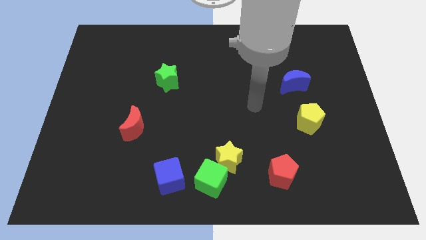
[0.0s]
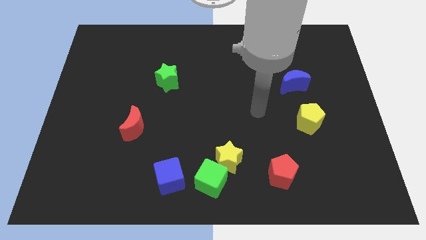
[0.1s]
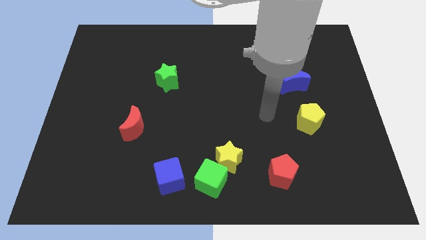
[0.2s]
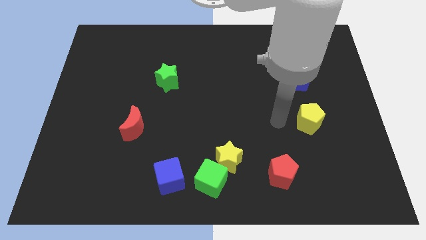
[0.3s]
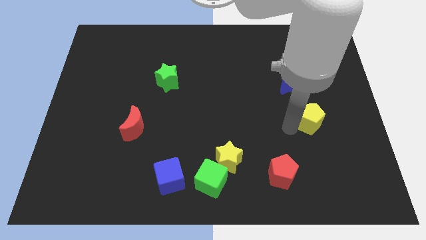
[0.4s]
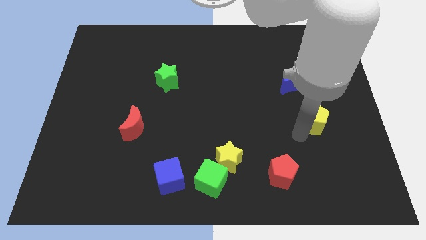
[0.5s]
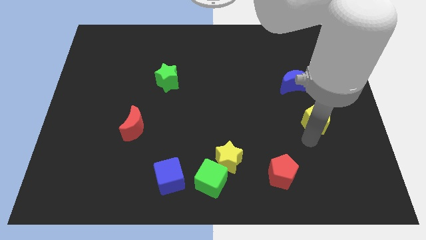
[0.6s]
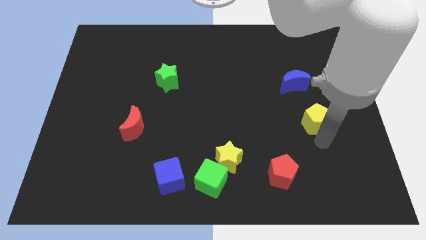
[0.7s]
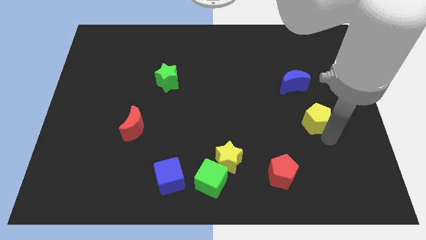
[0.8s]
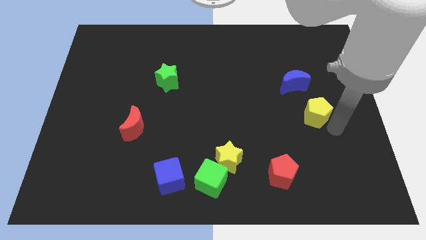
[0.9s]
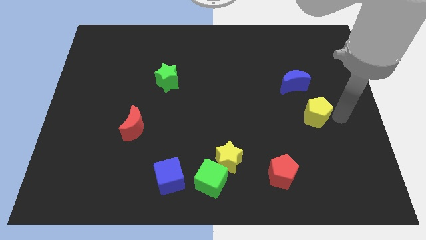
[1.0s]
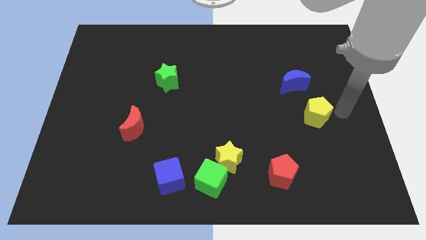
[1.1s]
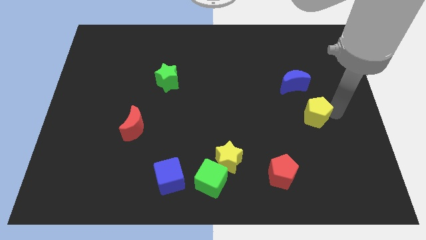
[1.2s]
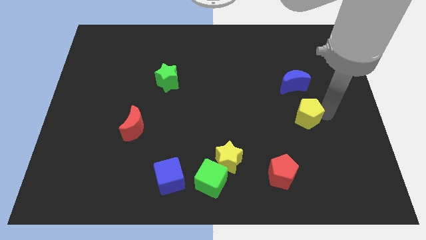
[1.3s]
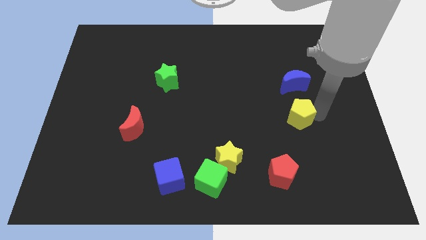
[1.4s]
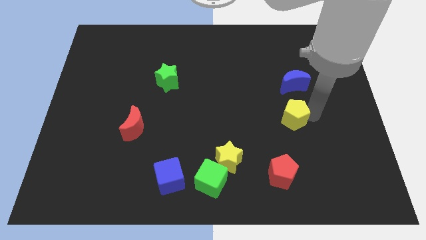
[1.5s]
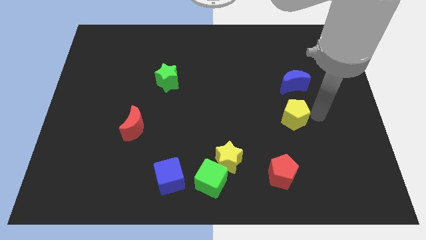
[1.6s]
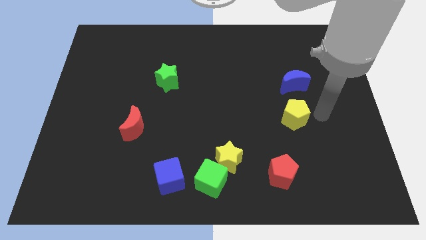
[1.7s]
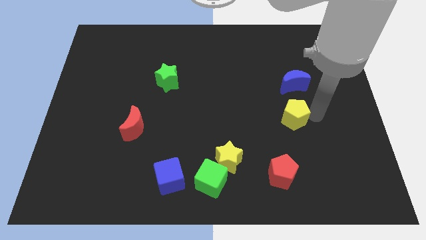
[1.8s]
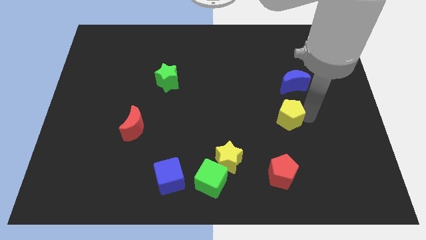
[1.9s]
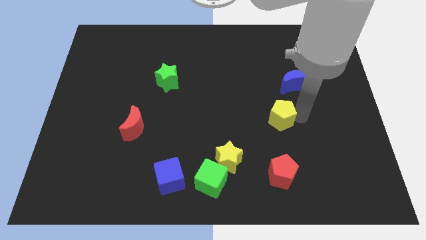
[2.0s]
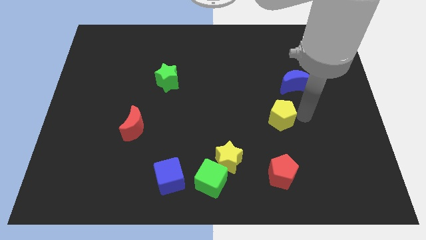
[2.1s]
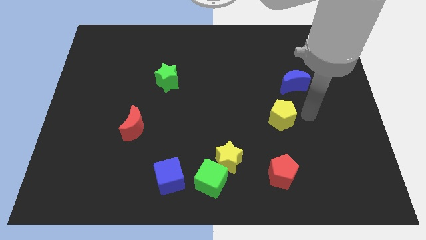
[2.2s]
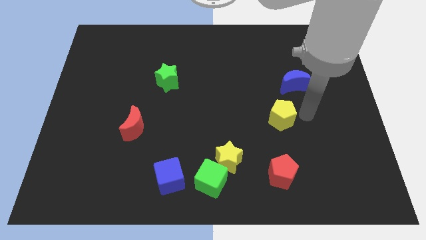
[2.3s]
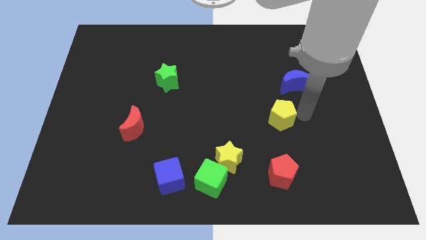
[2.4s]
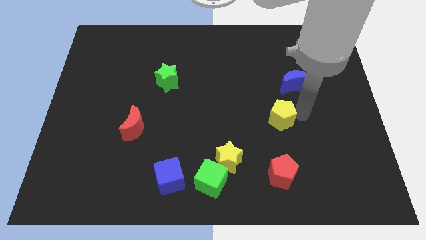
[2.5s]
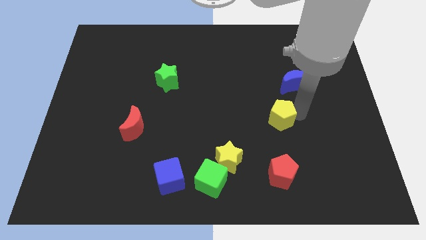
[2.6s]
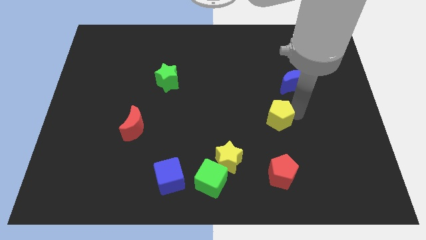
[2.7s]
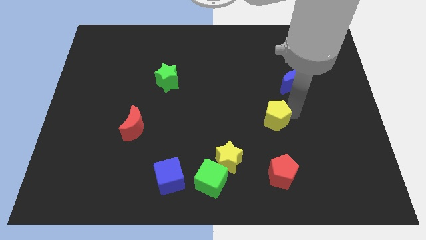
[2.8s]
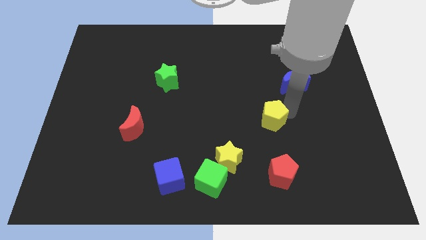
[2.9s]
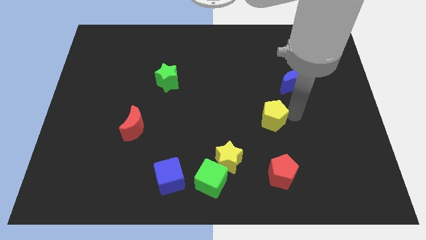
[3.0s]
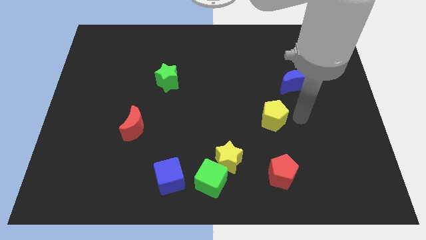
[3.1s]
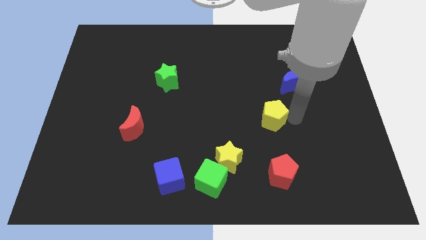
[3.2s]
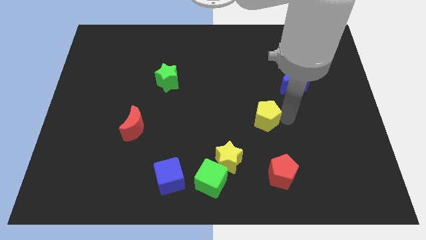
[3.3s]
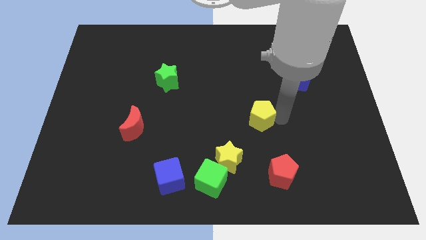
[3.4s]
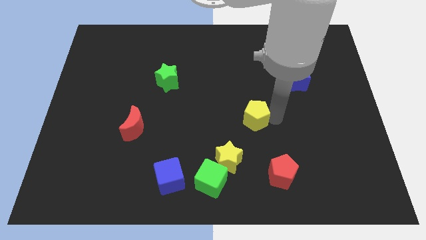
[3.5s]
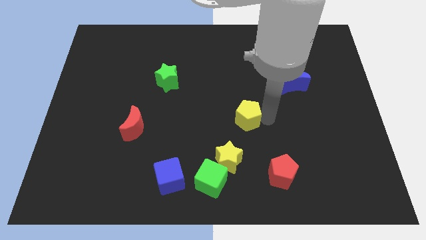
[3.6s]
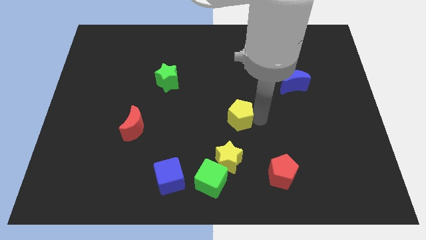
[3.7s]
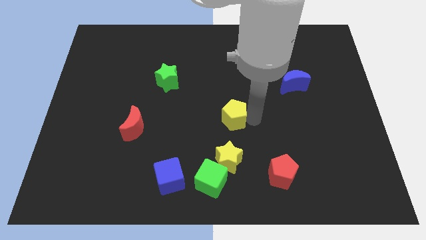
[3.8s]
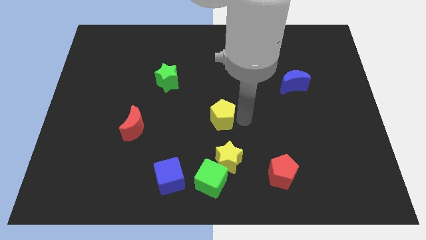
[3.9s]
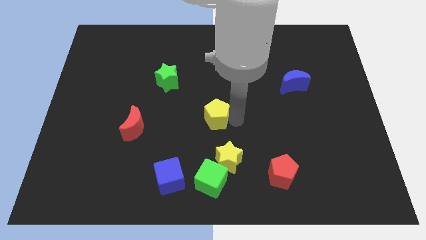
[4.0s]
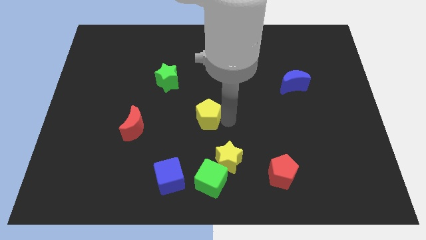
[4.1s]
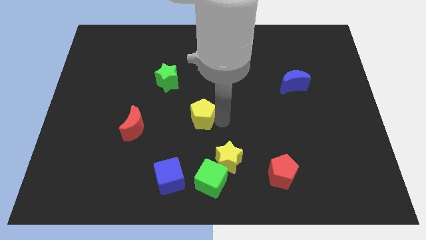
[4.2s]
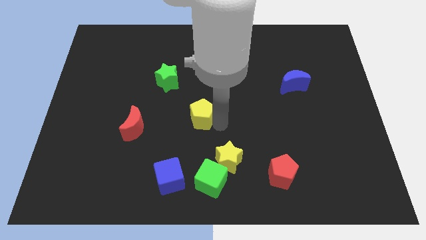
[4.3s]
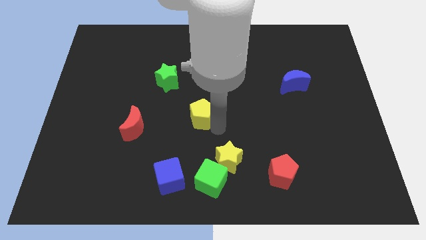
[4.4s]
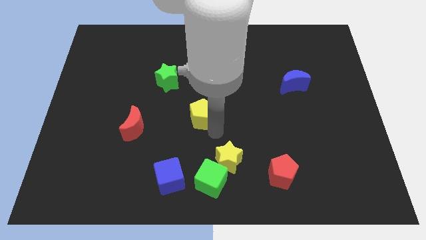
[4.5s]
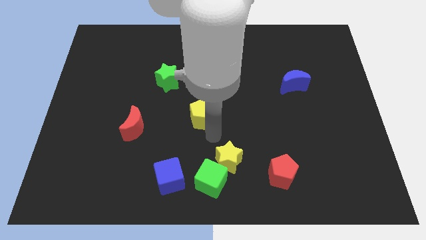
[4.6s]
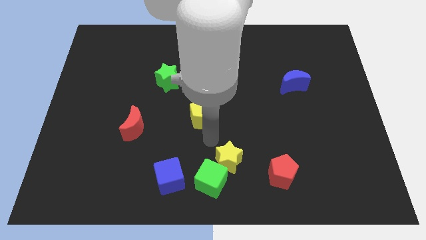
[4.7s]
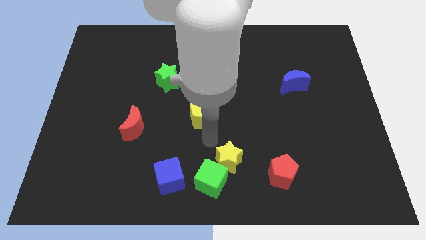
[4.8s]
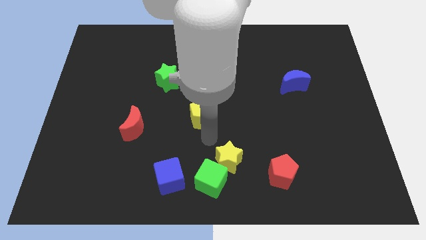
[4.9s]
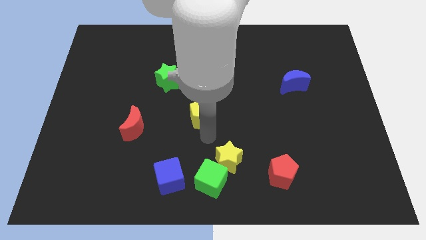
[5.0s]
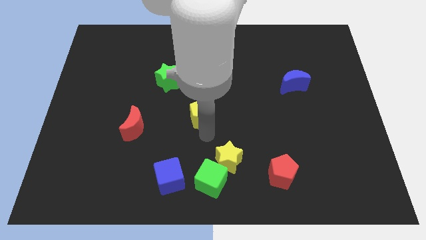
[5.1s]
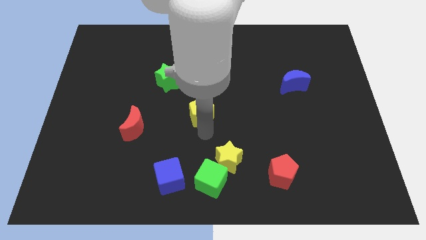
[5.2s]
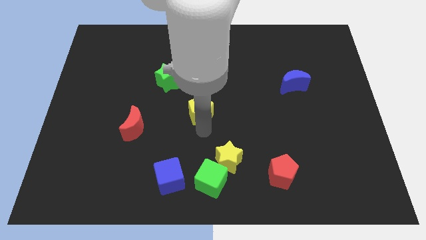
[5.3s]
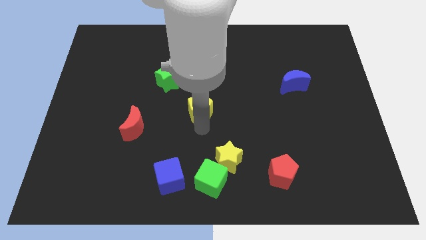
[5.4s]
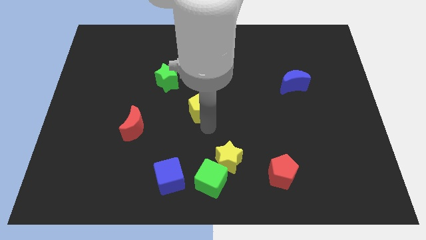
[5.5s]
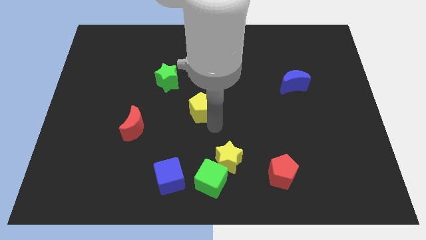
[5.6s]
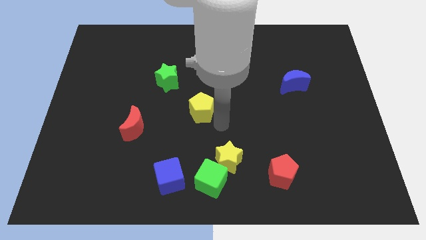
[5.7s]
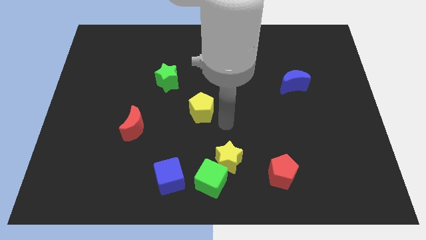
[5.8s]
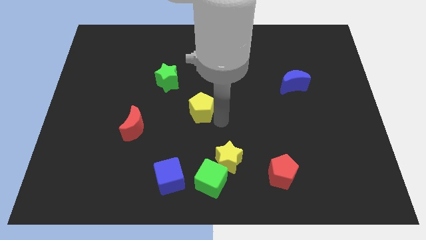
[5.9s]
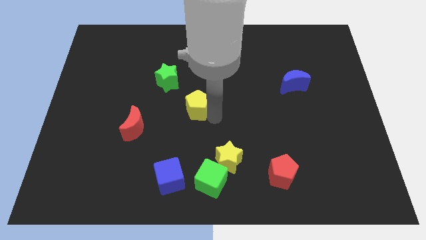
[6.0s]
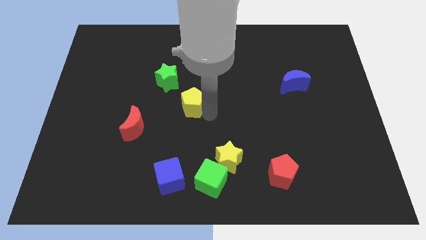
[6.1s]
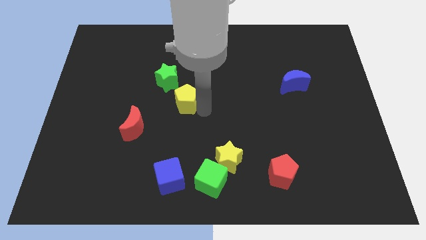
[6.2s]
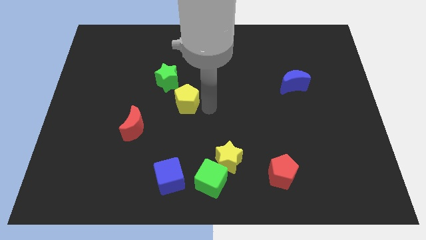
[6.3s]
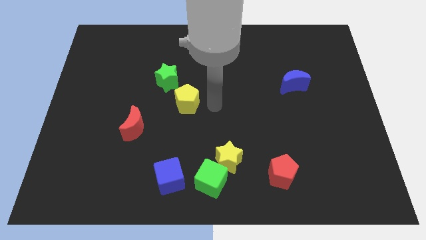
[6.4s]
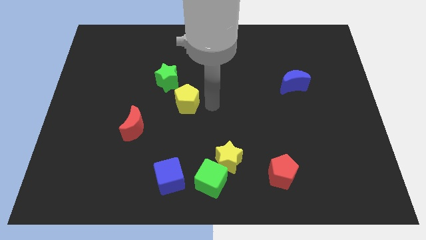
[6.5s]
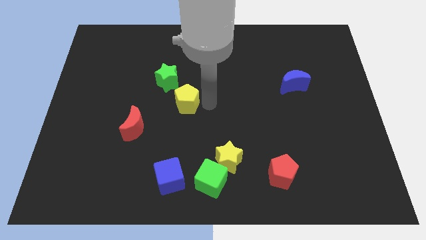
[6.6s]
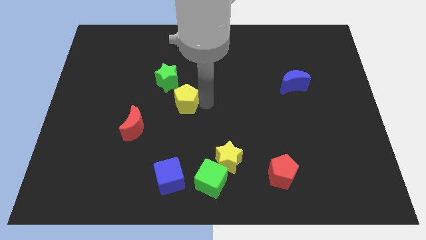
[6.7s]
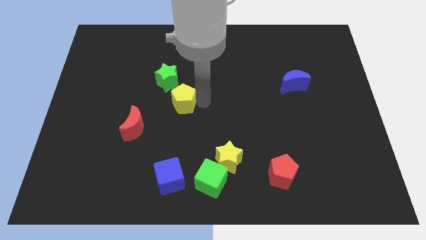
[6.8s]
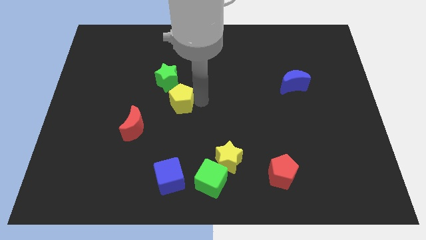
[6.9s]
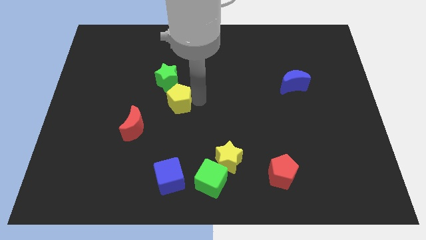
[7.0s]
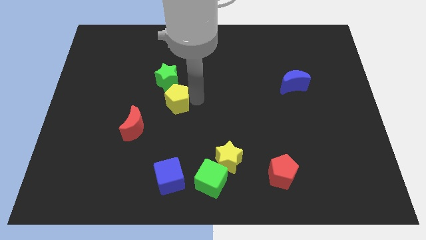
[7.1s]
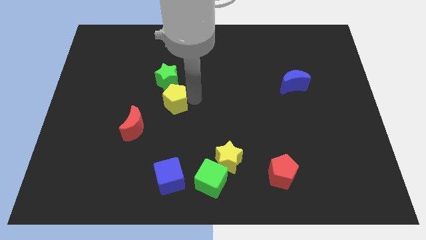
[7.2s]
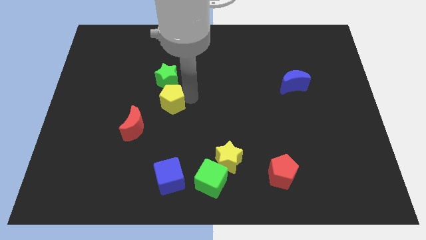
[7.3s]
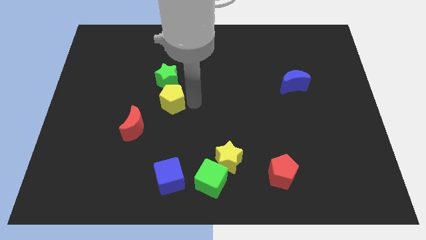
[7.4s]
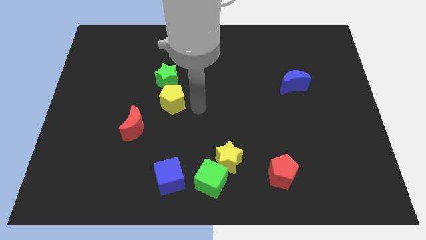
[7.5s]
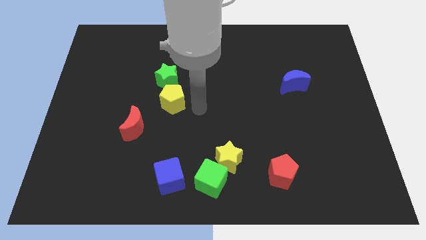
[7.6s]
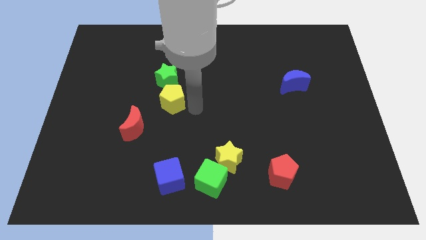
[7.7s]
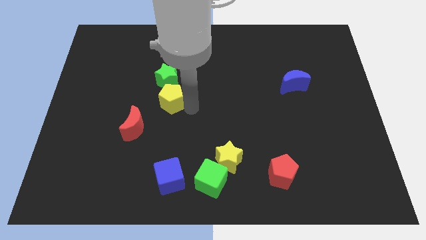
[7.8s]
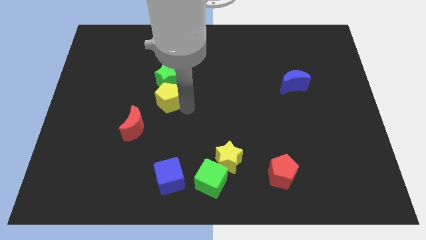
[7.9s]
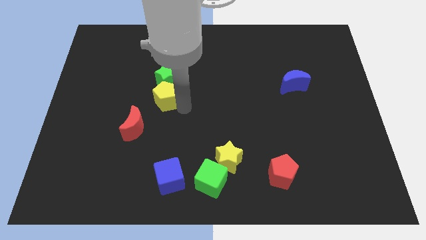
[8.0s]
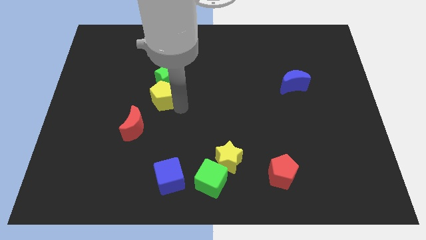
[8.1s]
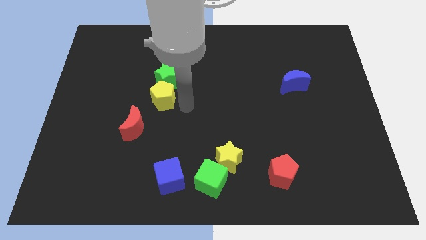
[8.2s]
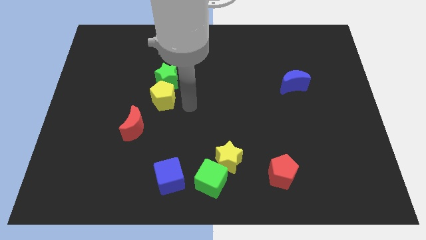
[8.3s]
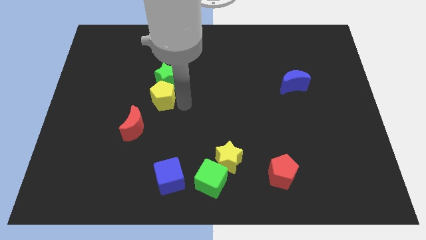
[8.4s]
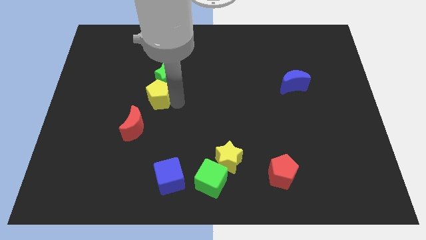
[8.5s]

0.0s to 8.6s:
slide the yellow pentagon to the top side of the red moon
